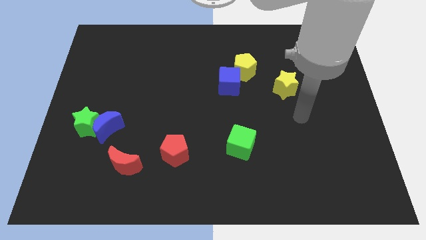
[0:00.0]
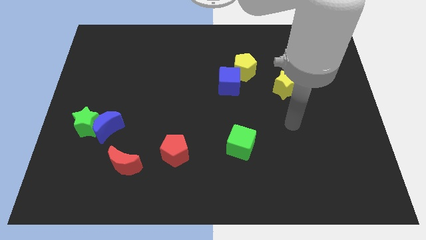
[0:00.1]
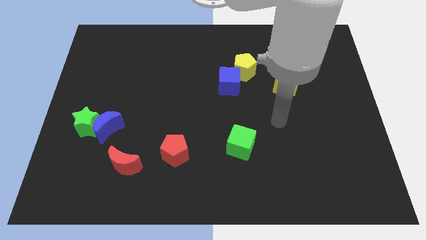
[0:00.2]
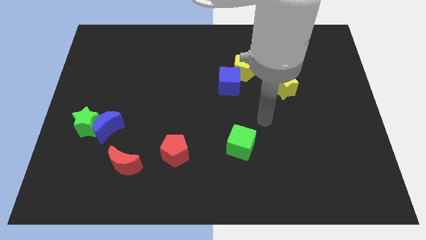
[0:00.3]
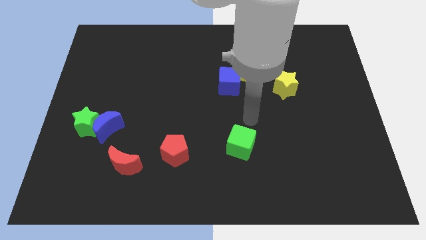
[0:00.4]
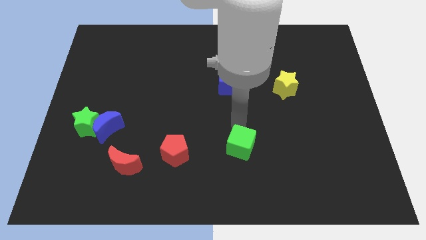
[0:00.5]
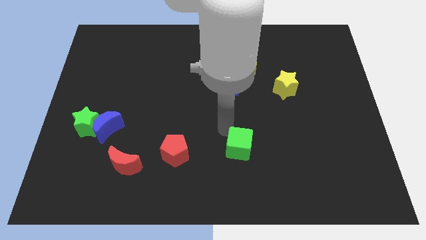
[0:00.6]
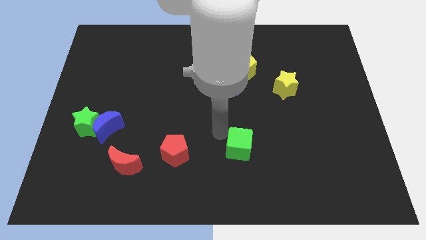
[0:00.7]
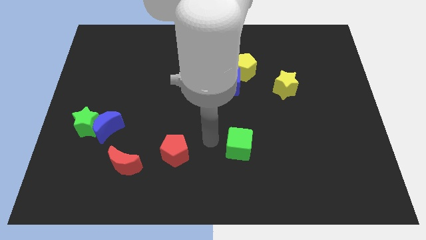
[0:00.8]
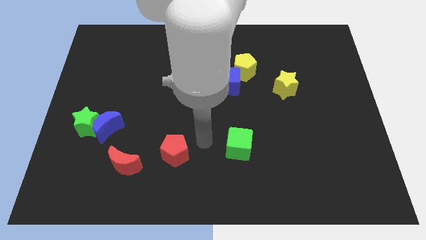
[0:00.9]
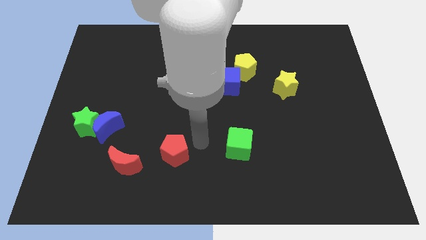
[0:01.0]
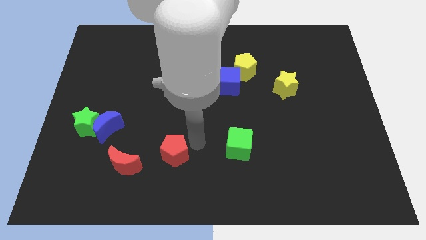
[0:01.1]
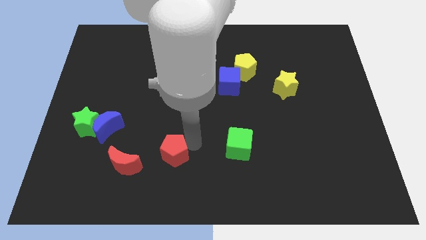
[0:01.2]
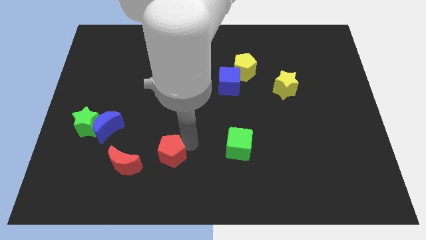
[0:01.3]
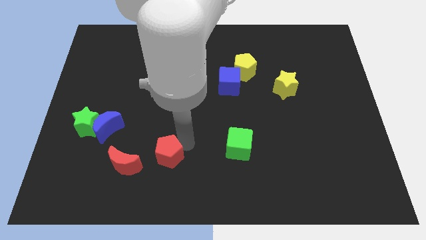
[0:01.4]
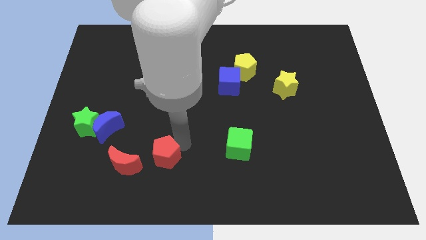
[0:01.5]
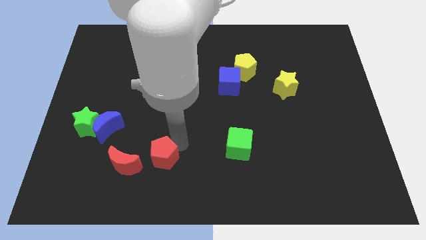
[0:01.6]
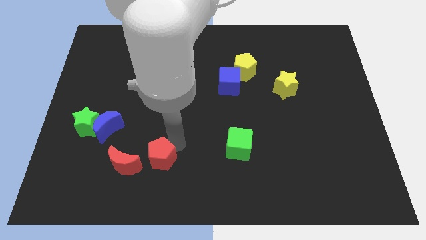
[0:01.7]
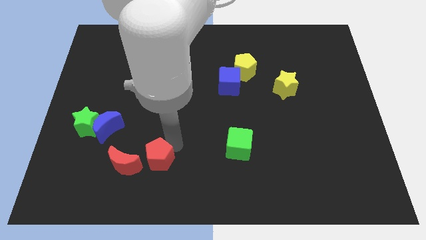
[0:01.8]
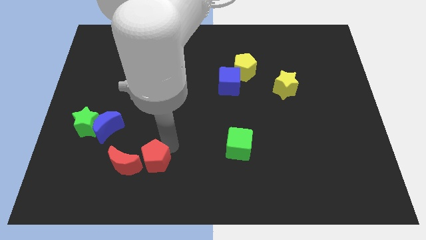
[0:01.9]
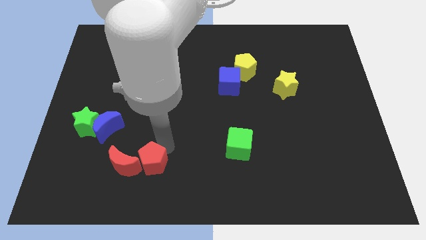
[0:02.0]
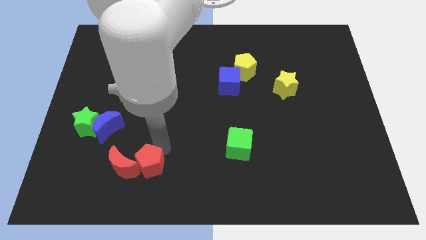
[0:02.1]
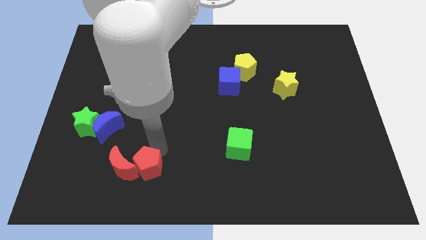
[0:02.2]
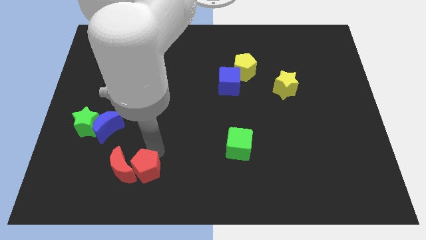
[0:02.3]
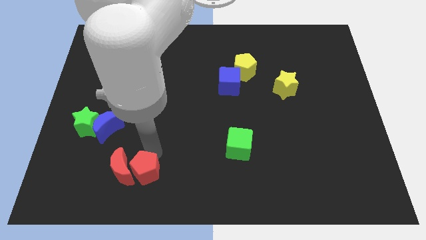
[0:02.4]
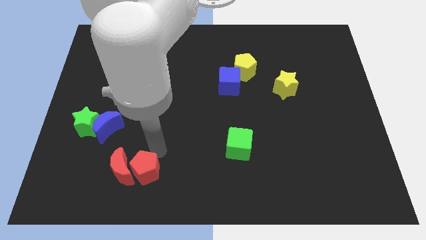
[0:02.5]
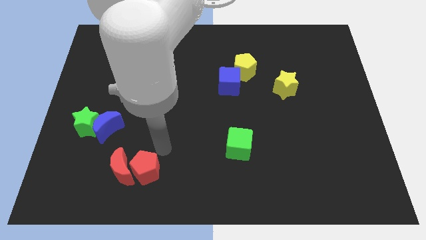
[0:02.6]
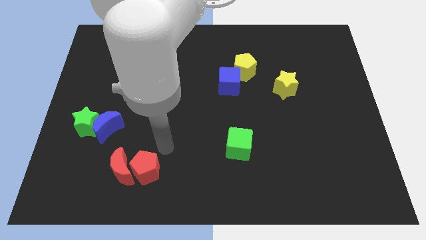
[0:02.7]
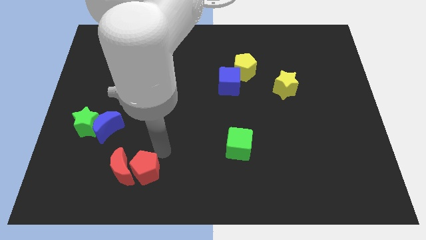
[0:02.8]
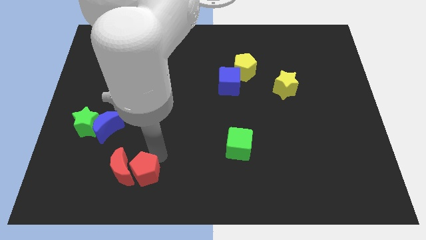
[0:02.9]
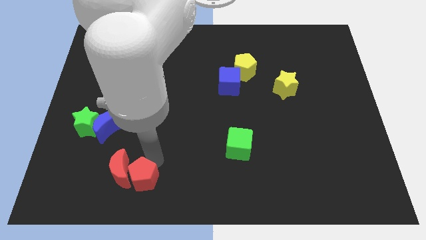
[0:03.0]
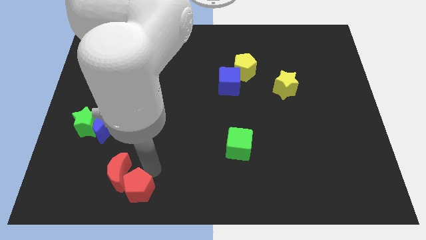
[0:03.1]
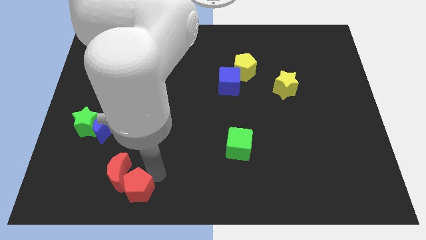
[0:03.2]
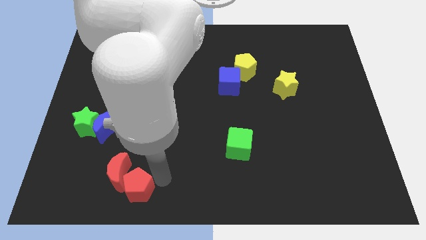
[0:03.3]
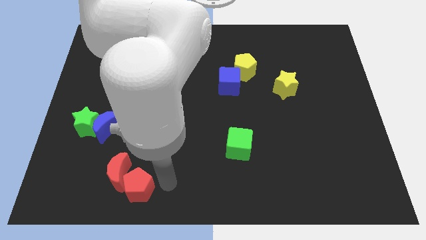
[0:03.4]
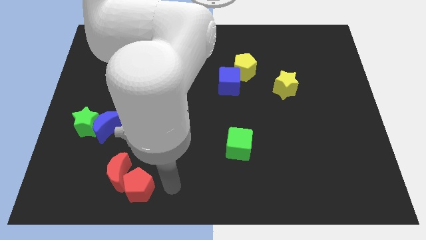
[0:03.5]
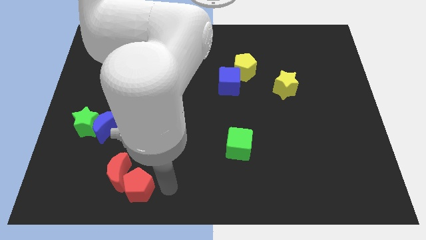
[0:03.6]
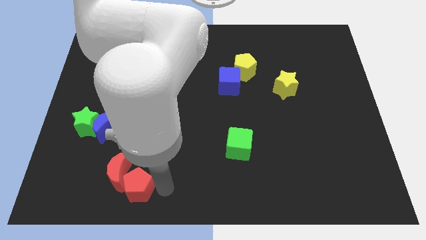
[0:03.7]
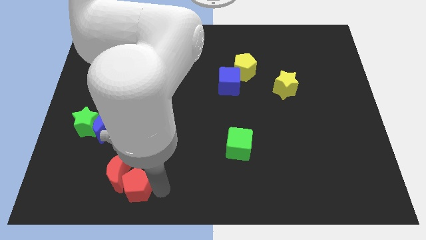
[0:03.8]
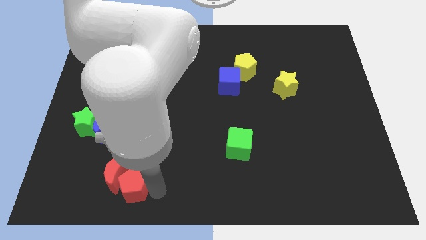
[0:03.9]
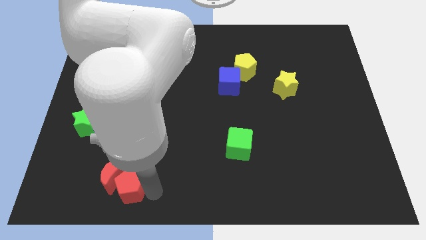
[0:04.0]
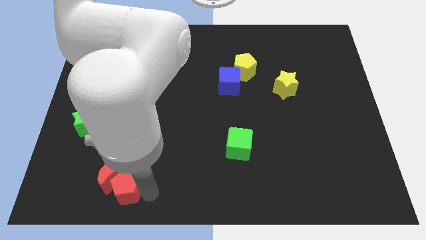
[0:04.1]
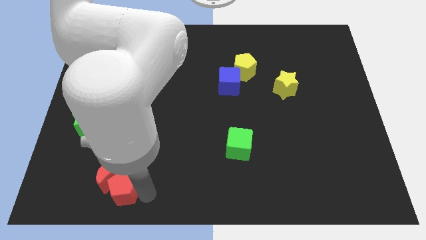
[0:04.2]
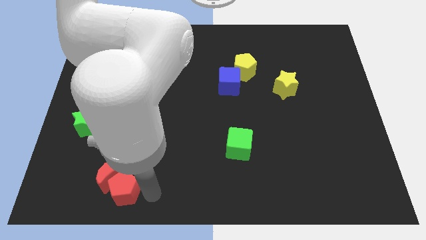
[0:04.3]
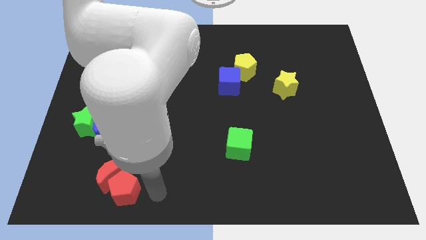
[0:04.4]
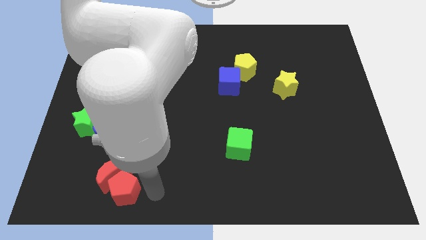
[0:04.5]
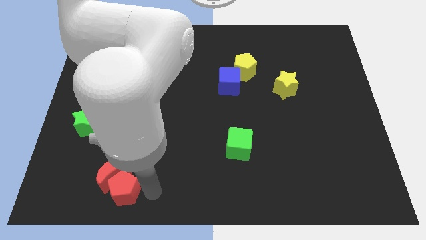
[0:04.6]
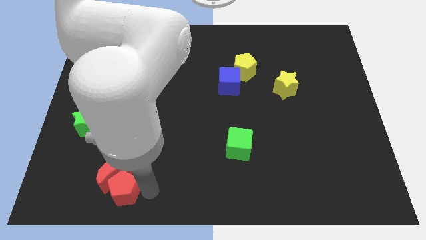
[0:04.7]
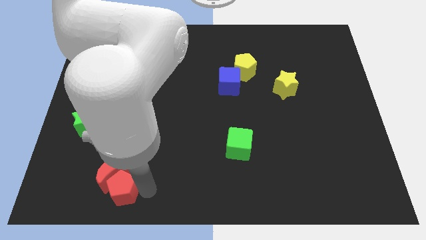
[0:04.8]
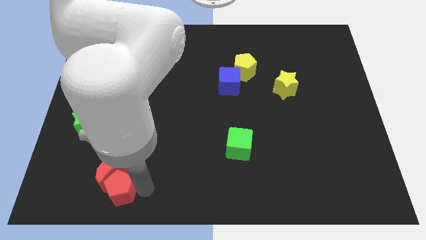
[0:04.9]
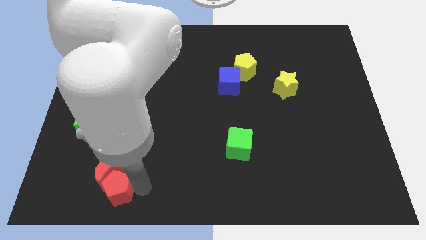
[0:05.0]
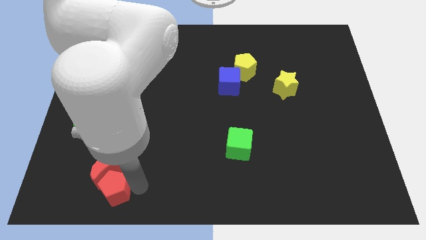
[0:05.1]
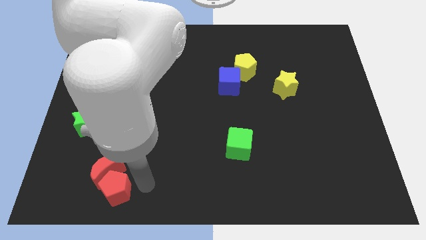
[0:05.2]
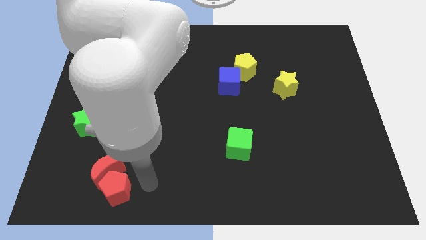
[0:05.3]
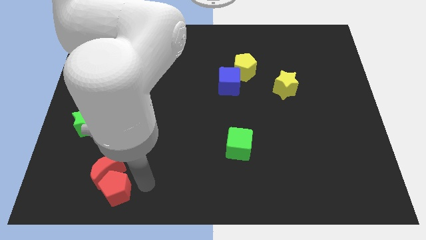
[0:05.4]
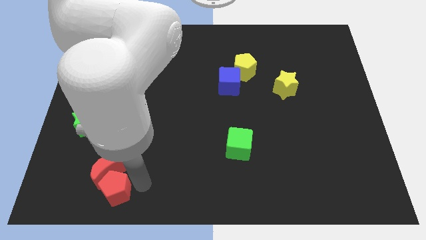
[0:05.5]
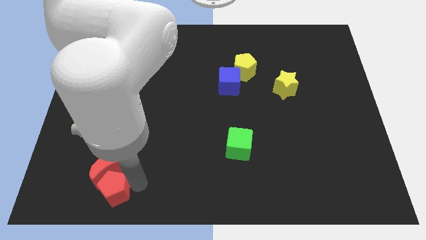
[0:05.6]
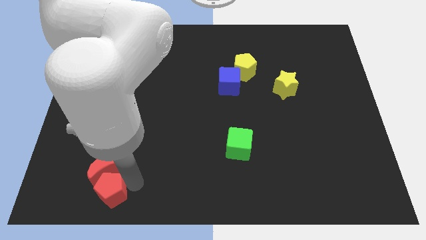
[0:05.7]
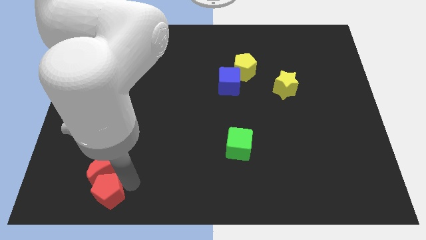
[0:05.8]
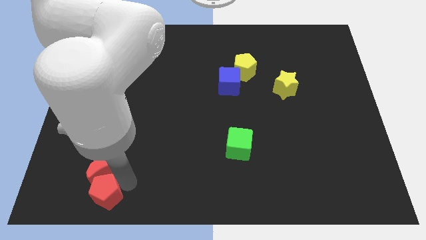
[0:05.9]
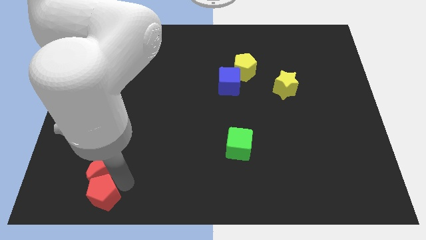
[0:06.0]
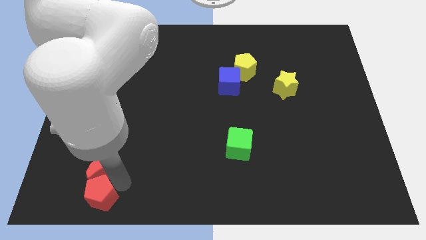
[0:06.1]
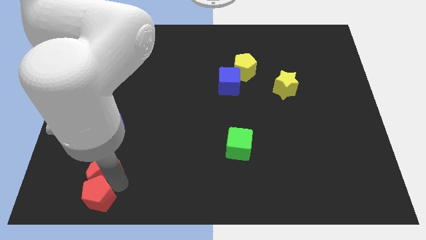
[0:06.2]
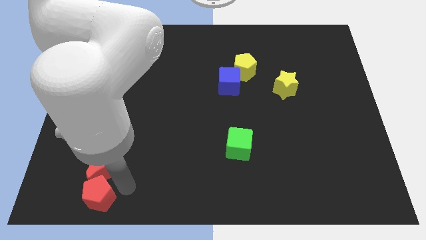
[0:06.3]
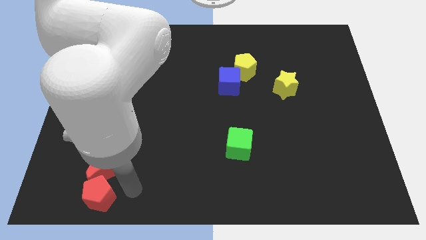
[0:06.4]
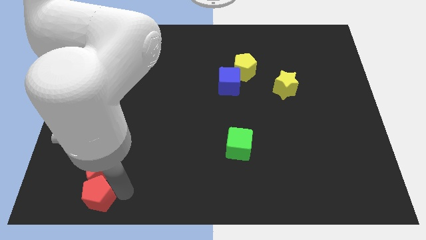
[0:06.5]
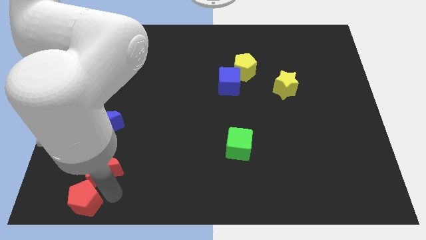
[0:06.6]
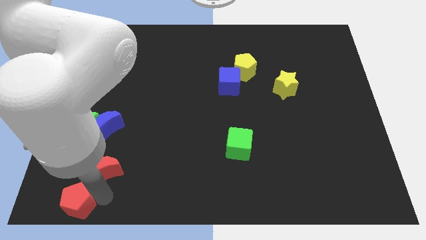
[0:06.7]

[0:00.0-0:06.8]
move the red pentagon to the lower left corner

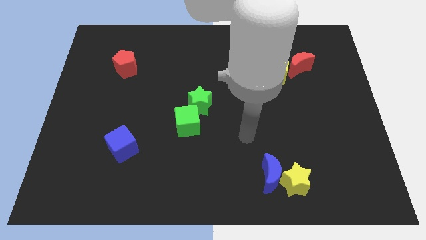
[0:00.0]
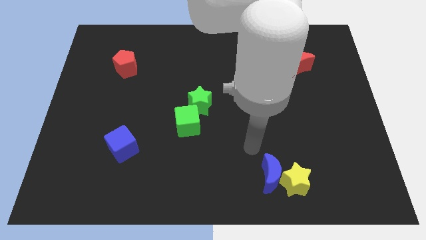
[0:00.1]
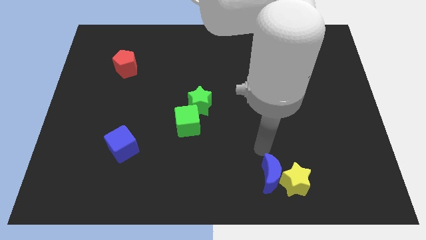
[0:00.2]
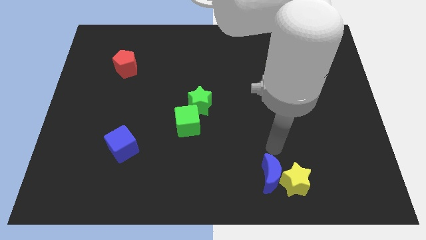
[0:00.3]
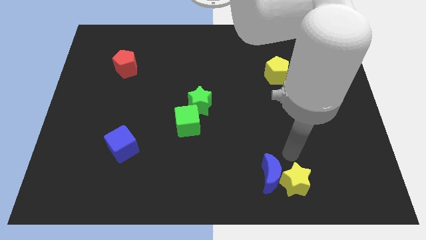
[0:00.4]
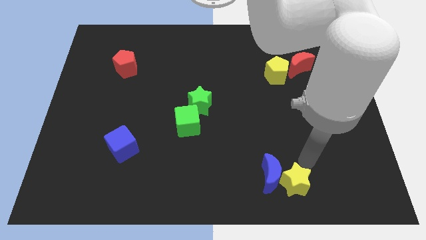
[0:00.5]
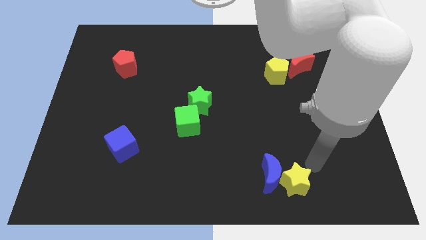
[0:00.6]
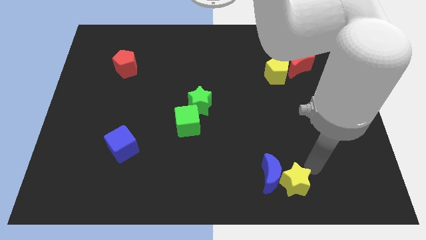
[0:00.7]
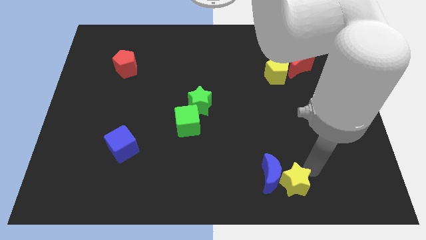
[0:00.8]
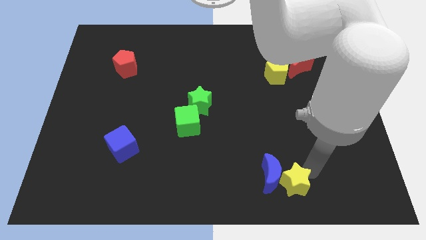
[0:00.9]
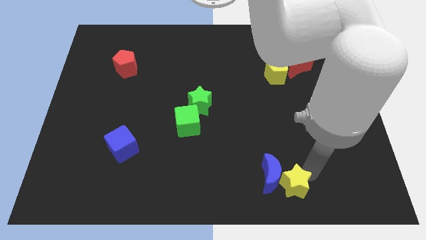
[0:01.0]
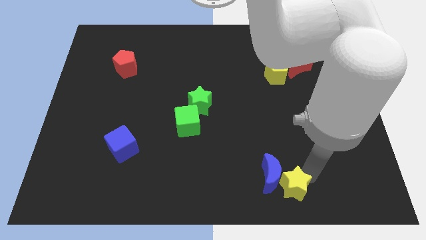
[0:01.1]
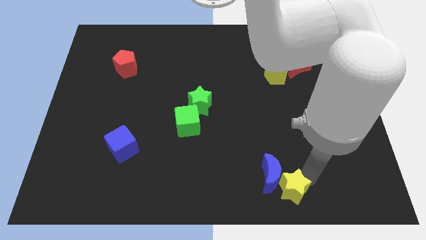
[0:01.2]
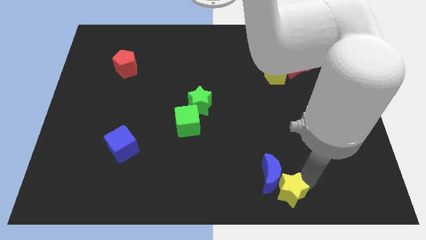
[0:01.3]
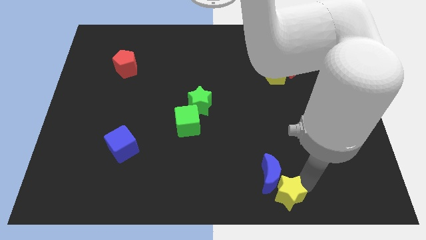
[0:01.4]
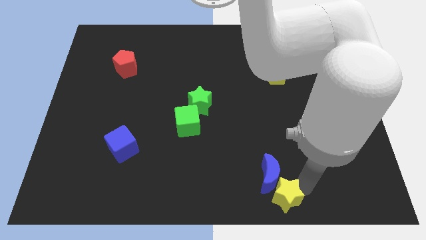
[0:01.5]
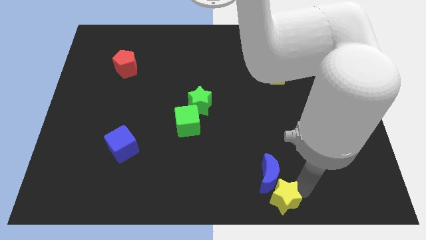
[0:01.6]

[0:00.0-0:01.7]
push the yellow star to the bottom side
